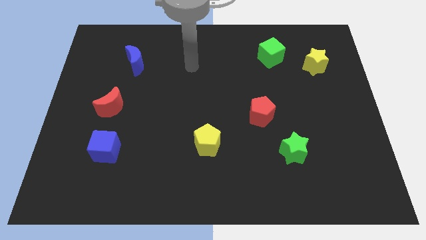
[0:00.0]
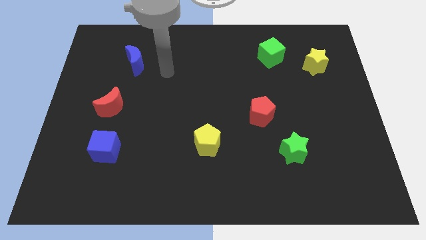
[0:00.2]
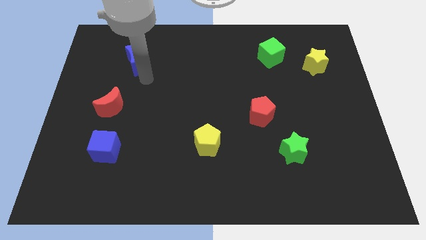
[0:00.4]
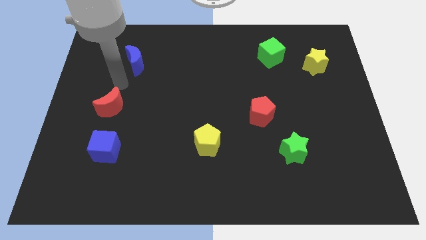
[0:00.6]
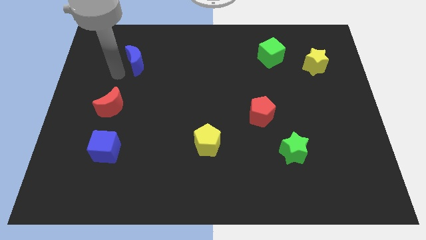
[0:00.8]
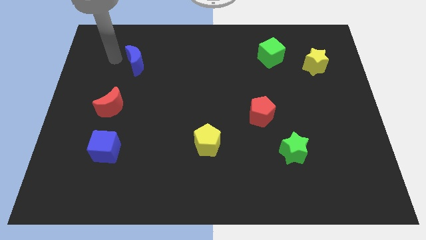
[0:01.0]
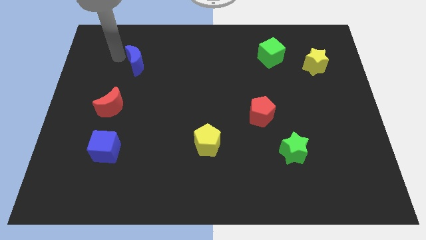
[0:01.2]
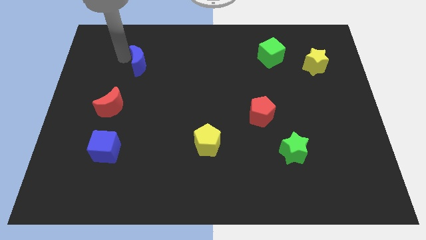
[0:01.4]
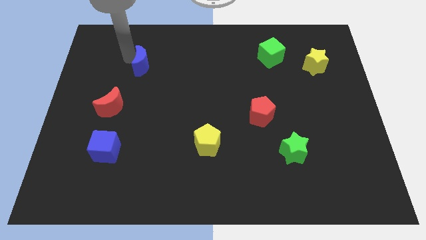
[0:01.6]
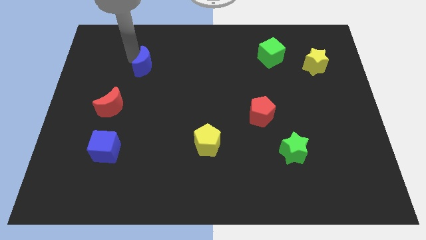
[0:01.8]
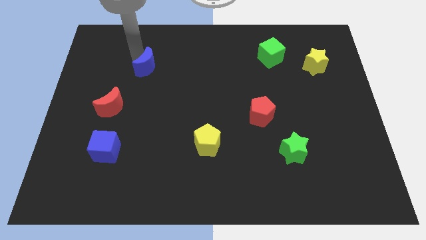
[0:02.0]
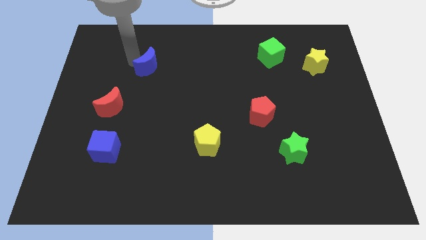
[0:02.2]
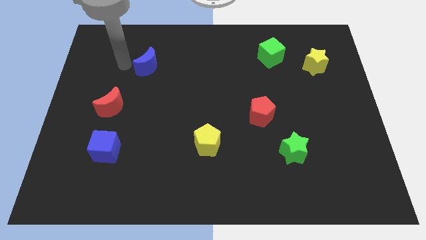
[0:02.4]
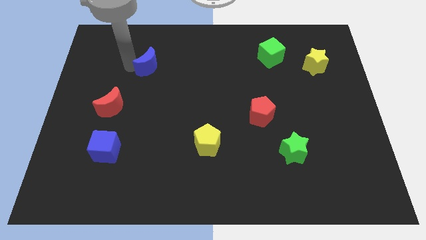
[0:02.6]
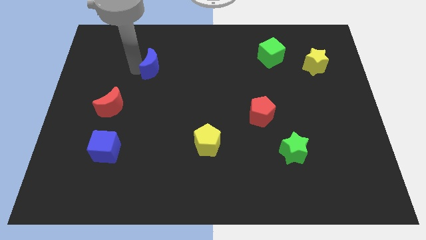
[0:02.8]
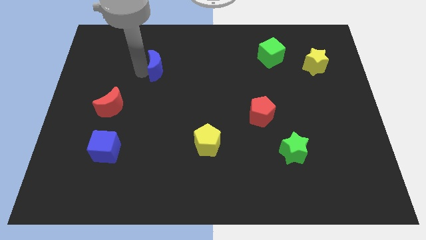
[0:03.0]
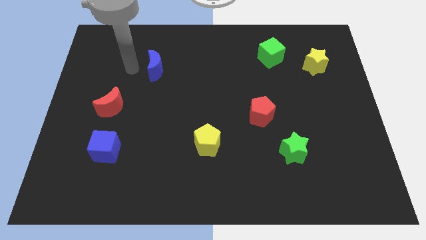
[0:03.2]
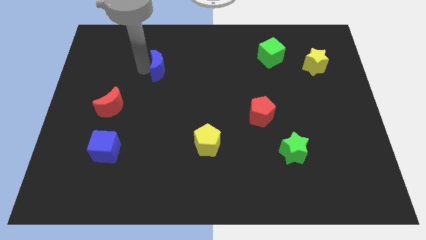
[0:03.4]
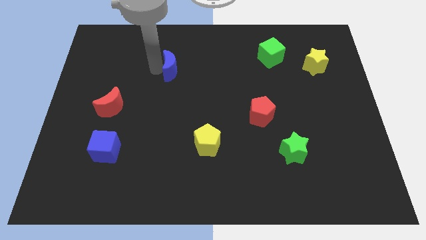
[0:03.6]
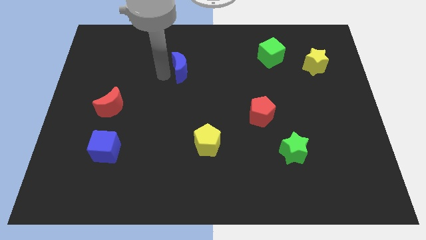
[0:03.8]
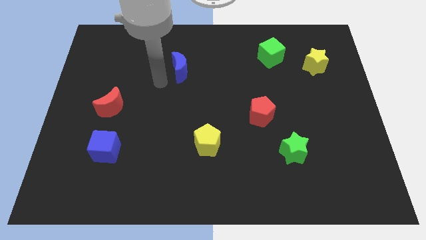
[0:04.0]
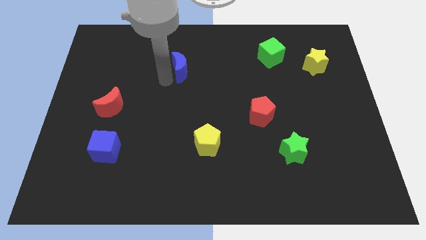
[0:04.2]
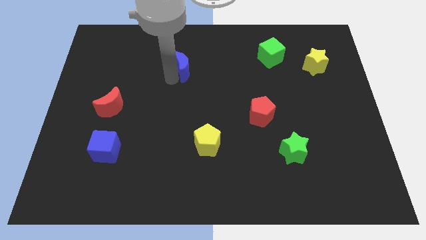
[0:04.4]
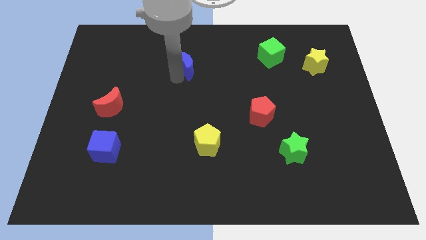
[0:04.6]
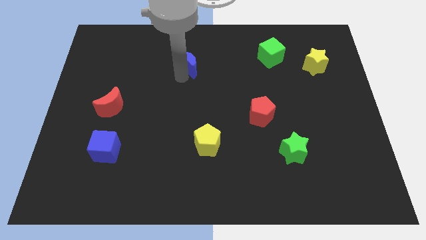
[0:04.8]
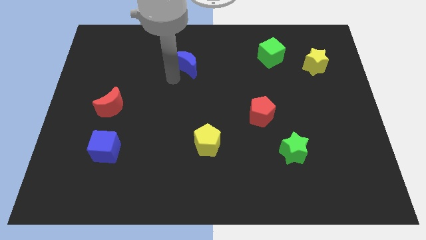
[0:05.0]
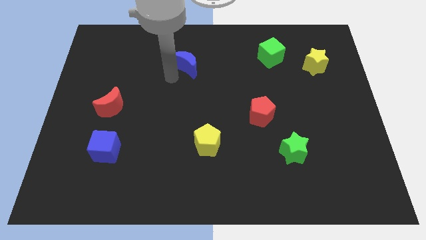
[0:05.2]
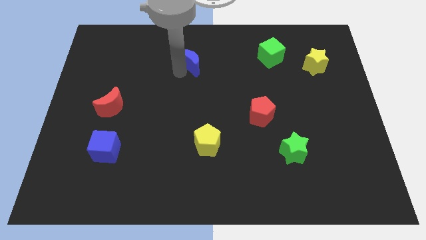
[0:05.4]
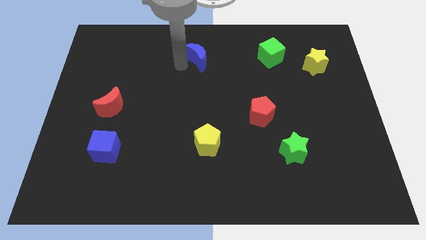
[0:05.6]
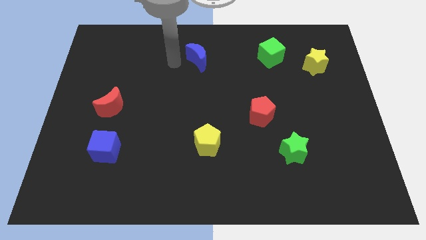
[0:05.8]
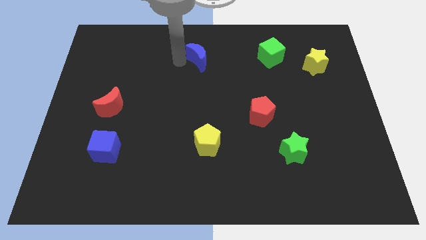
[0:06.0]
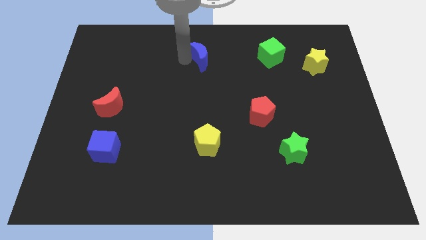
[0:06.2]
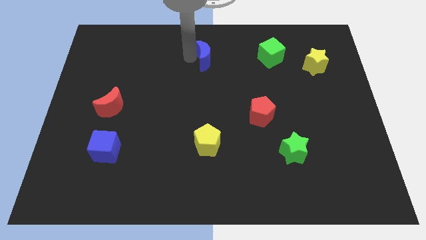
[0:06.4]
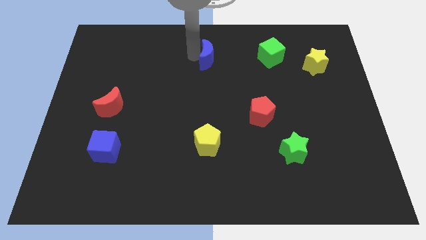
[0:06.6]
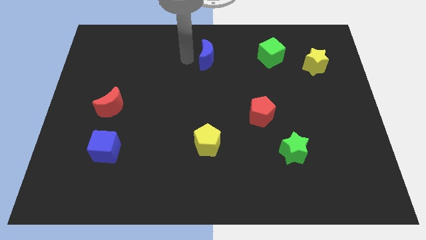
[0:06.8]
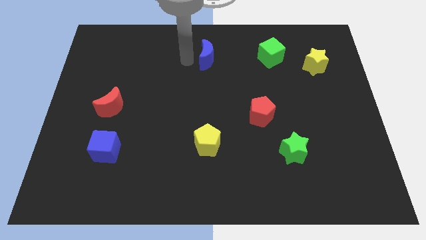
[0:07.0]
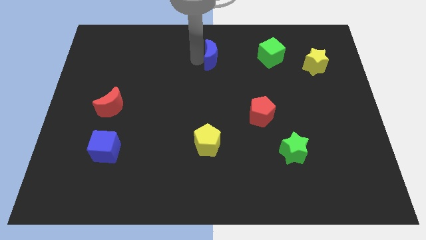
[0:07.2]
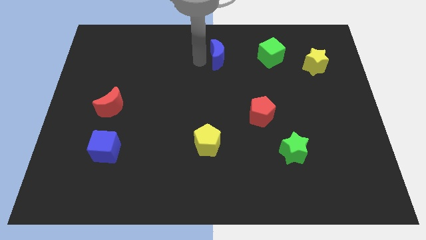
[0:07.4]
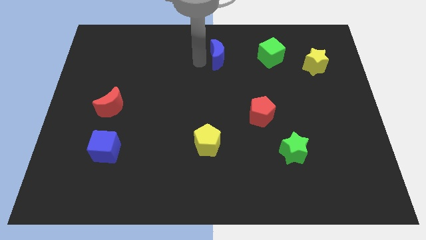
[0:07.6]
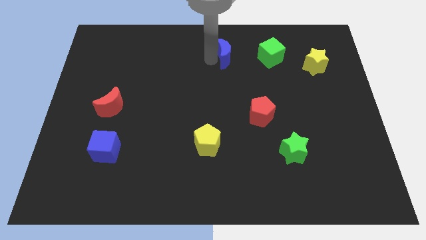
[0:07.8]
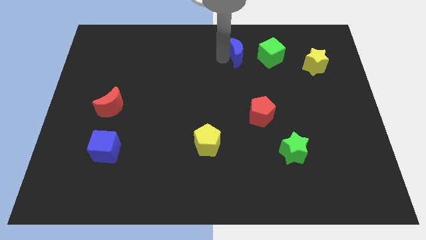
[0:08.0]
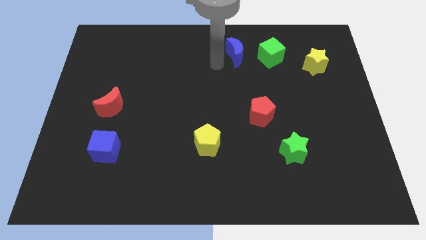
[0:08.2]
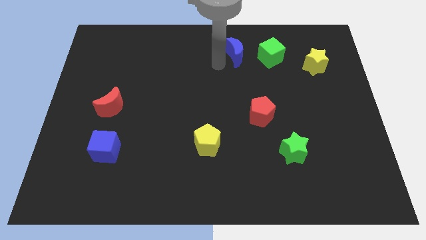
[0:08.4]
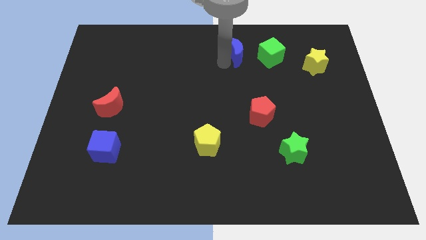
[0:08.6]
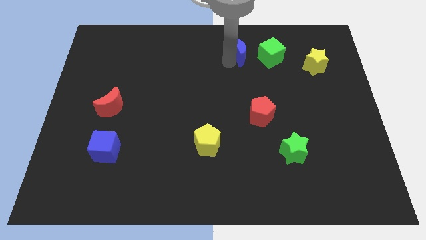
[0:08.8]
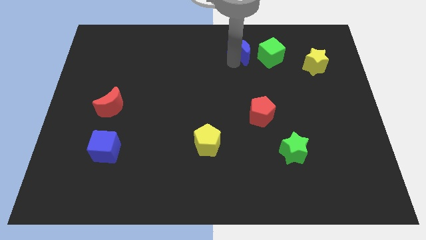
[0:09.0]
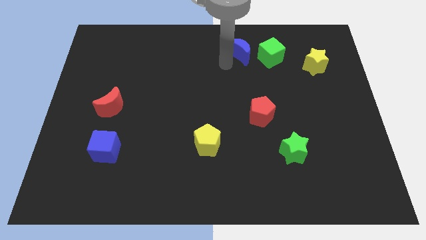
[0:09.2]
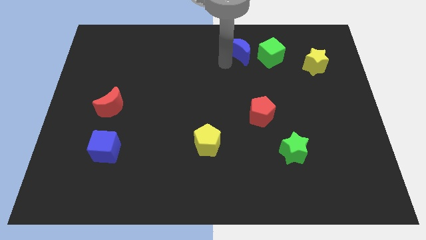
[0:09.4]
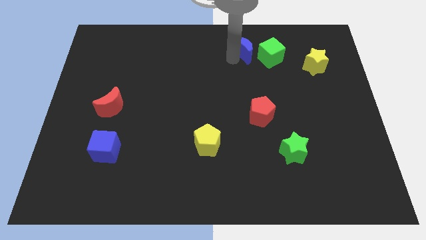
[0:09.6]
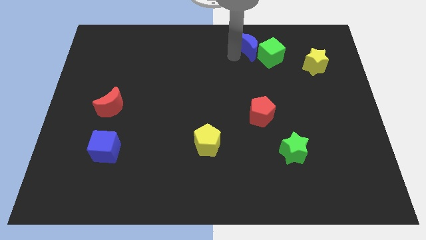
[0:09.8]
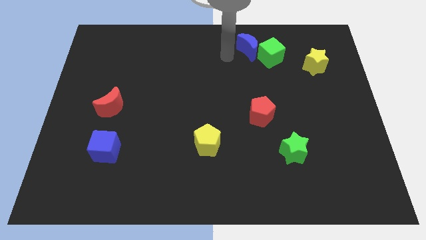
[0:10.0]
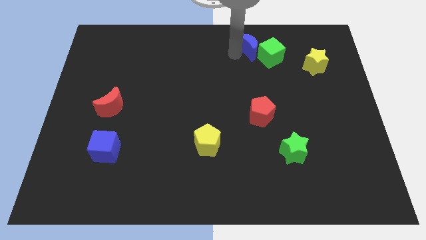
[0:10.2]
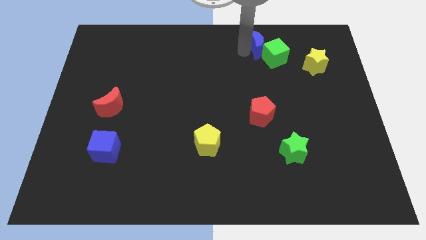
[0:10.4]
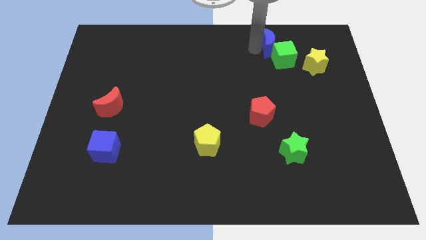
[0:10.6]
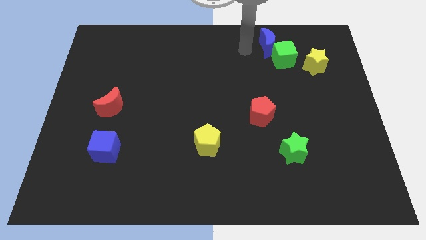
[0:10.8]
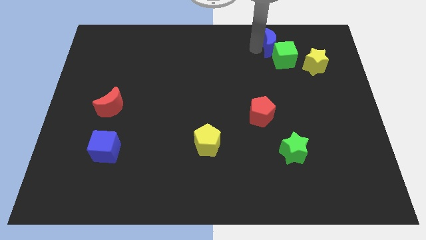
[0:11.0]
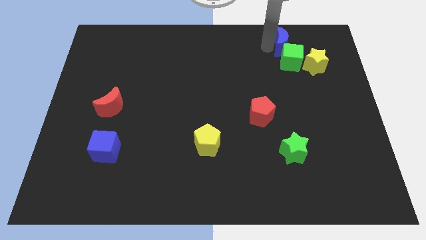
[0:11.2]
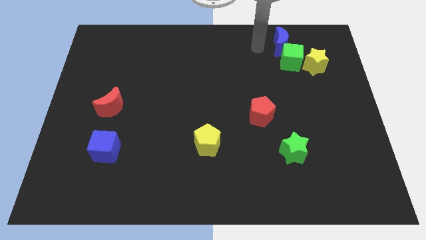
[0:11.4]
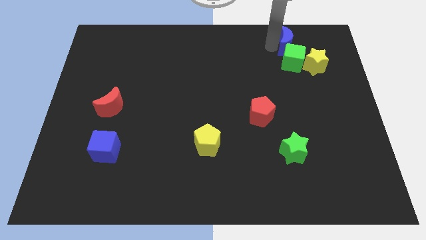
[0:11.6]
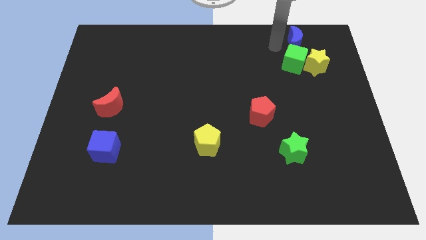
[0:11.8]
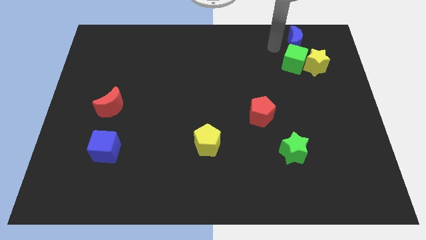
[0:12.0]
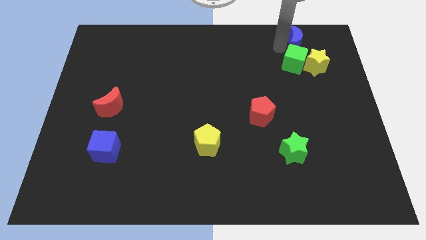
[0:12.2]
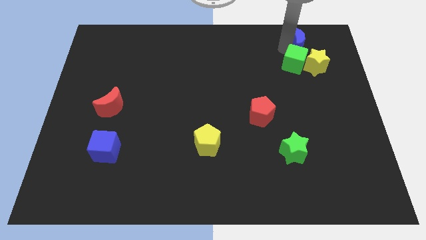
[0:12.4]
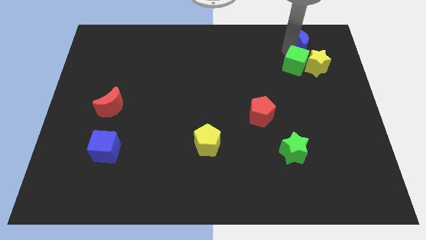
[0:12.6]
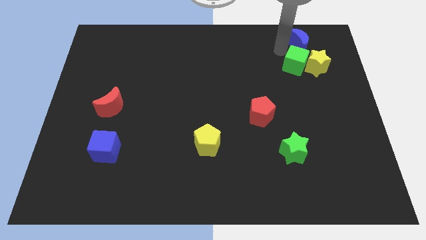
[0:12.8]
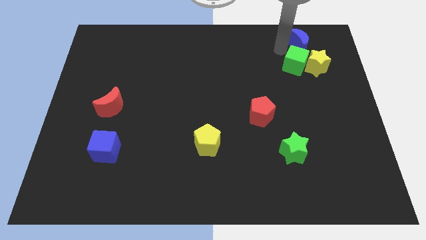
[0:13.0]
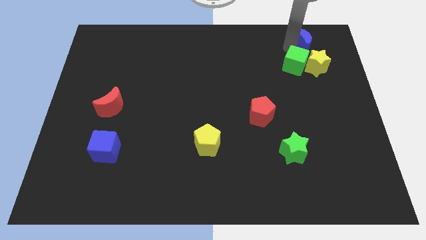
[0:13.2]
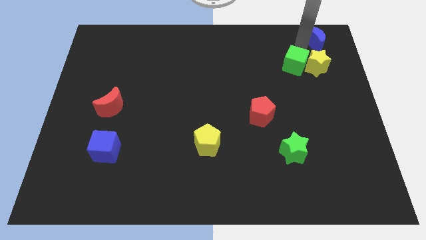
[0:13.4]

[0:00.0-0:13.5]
move the blue moon to the top right of the board
